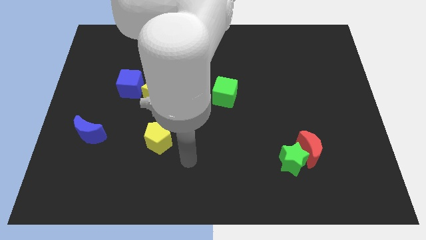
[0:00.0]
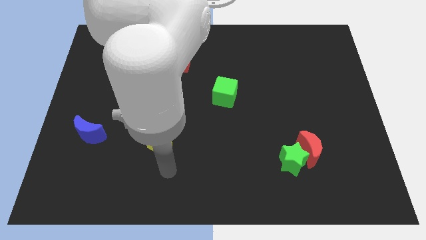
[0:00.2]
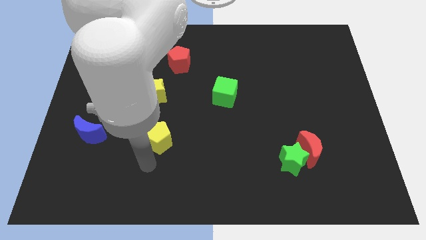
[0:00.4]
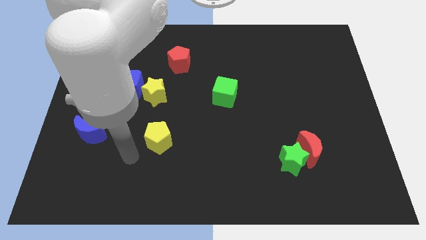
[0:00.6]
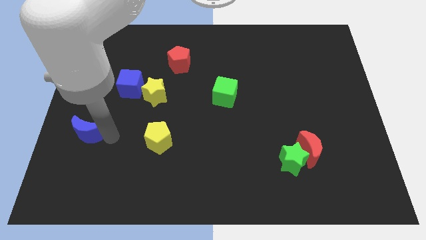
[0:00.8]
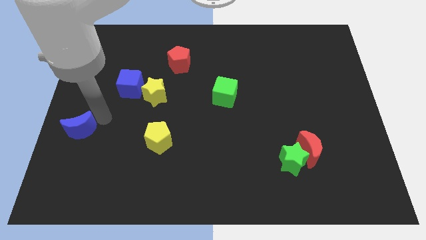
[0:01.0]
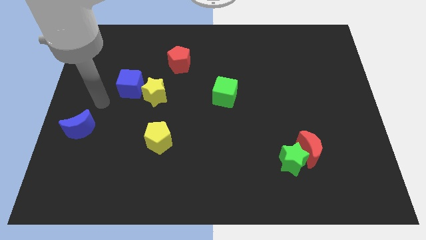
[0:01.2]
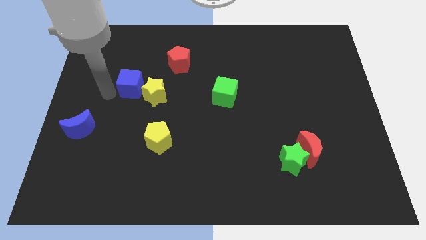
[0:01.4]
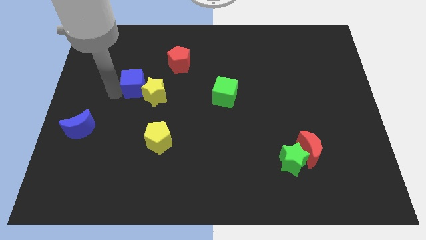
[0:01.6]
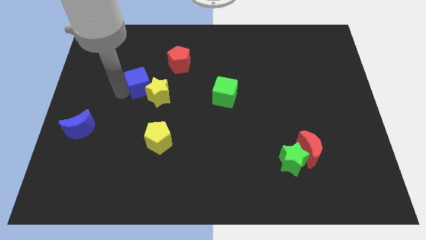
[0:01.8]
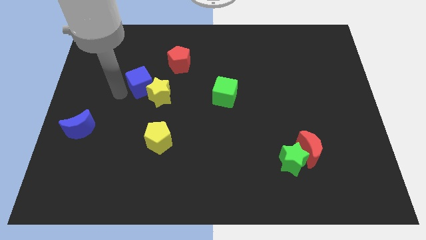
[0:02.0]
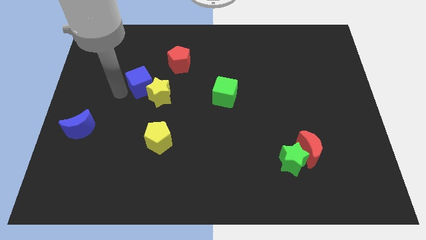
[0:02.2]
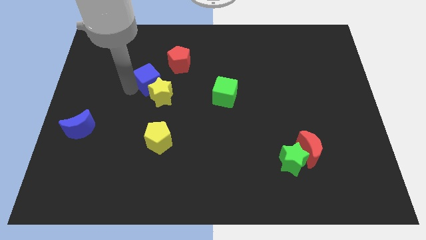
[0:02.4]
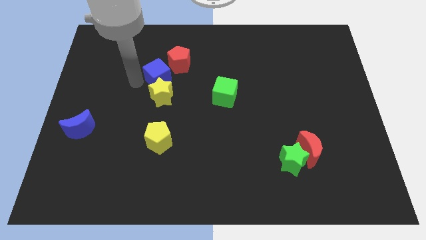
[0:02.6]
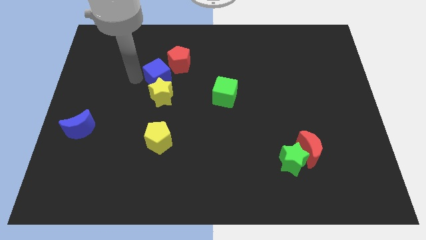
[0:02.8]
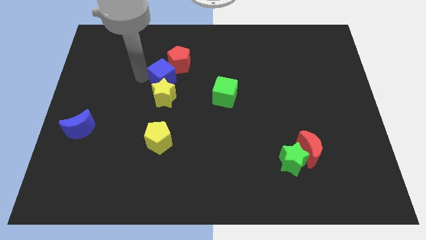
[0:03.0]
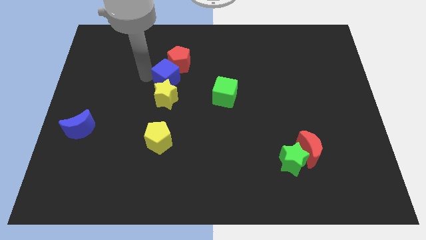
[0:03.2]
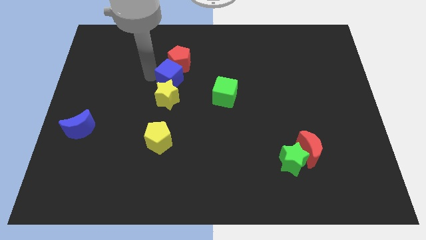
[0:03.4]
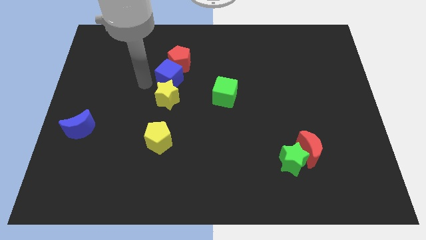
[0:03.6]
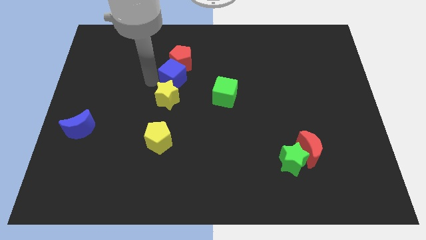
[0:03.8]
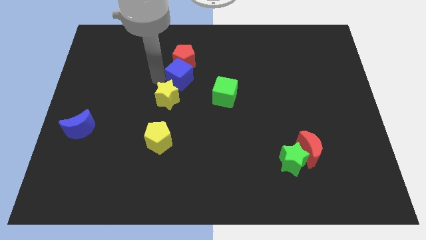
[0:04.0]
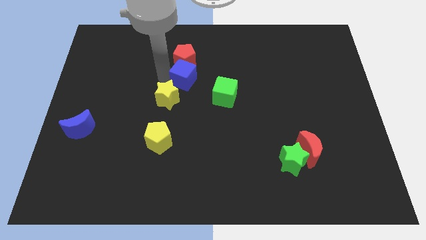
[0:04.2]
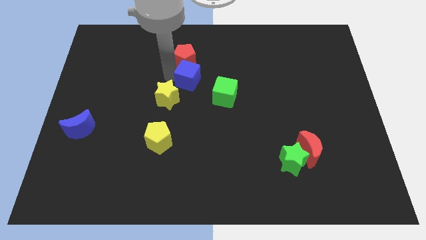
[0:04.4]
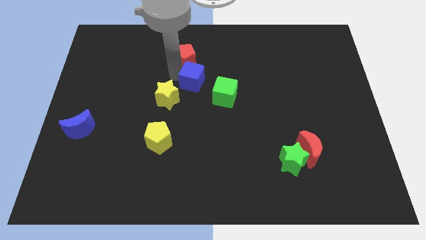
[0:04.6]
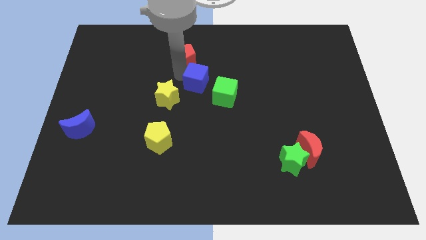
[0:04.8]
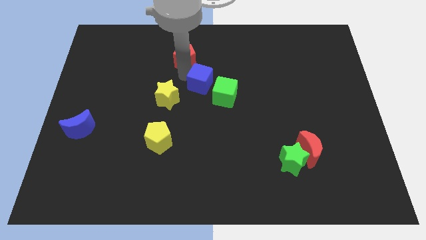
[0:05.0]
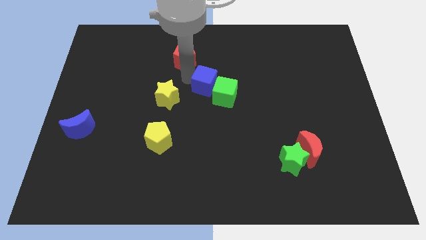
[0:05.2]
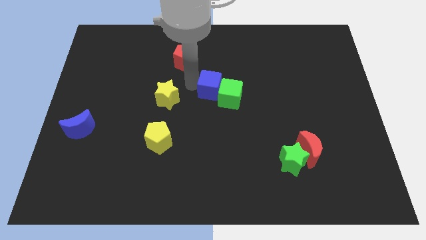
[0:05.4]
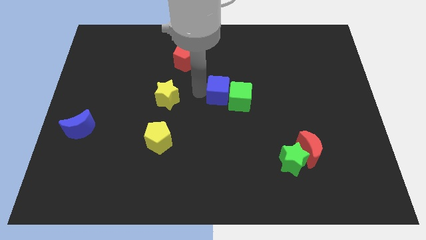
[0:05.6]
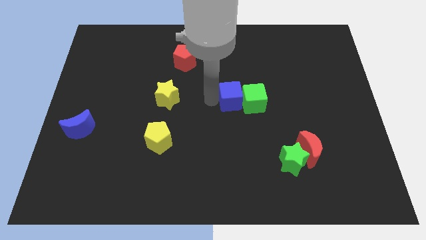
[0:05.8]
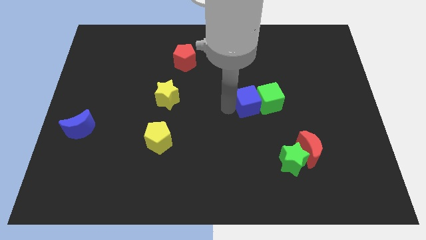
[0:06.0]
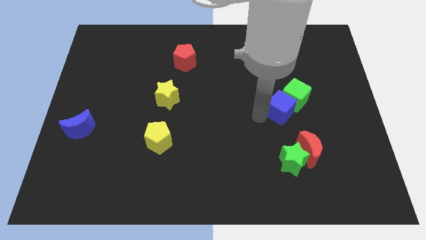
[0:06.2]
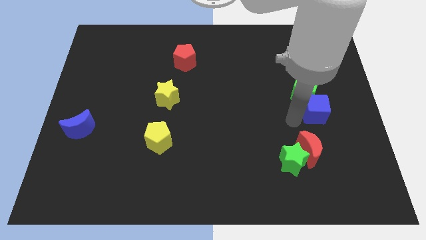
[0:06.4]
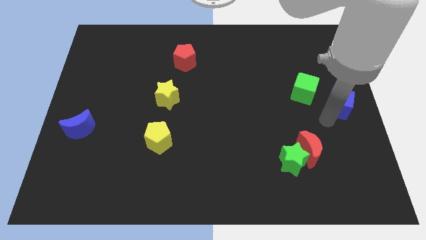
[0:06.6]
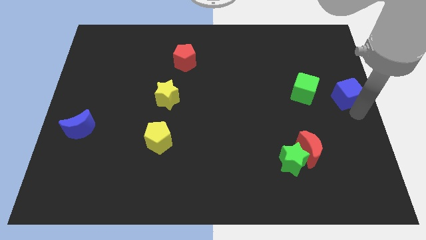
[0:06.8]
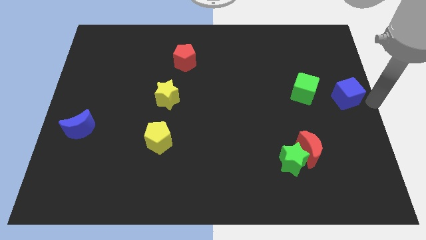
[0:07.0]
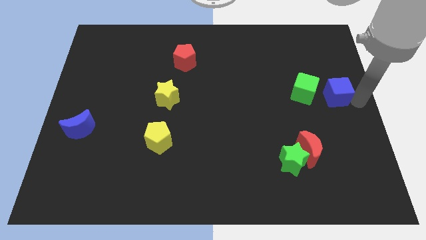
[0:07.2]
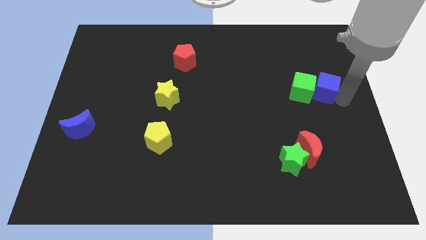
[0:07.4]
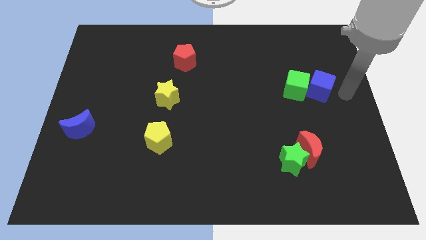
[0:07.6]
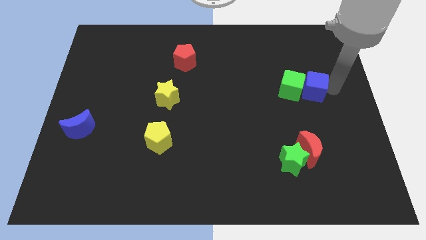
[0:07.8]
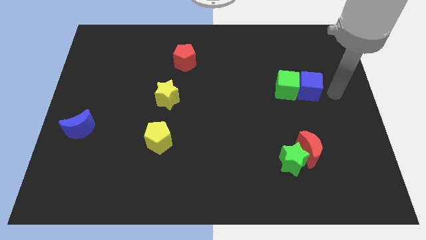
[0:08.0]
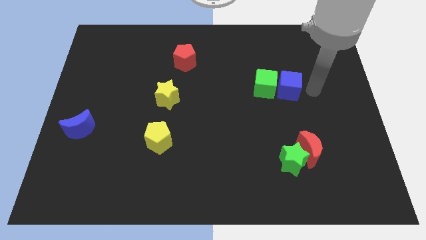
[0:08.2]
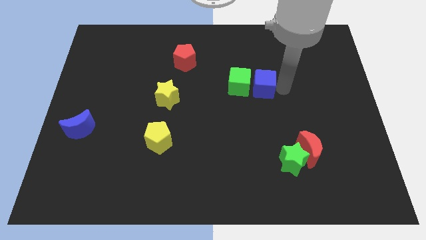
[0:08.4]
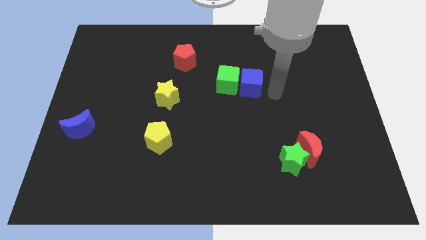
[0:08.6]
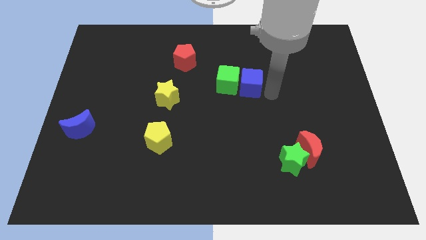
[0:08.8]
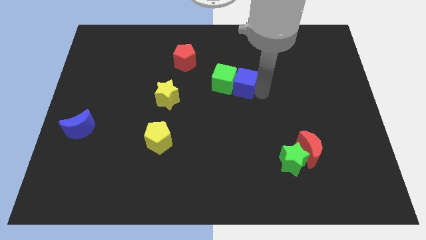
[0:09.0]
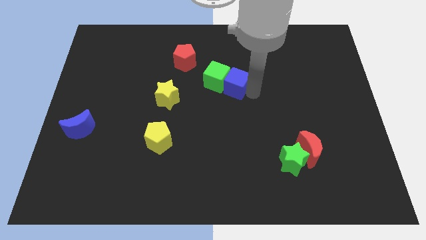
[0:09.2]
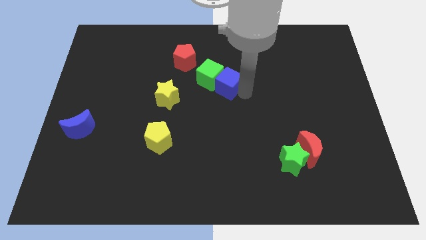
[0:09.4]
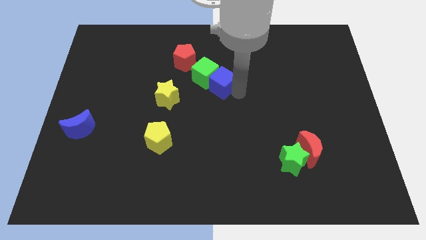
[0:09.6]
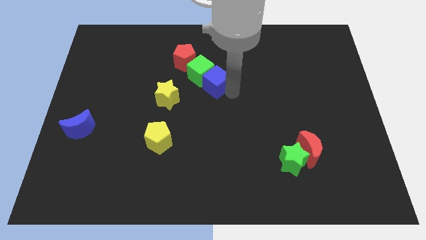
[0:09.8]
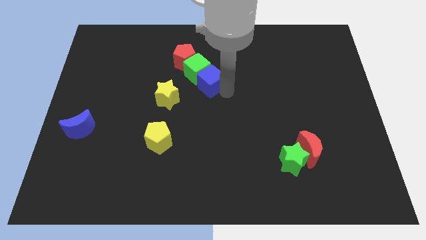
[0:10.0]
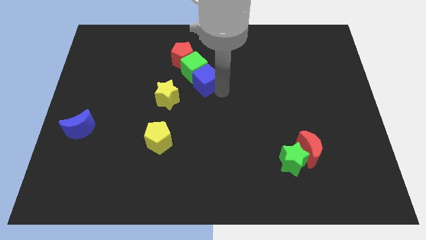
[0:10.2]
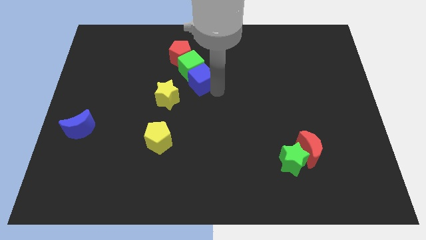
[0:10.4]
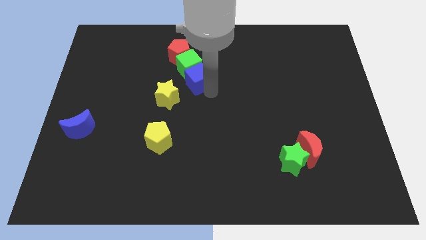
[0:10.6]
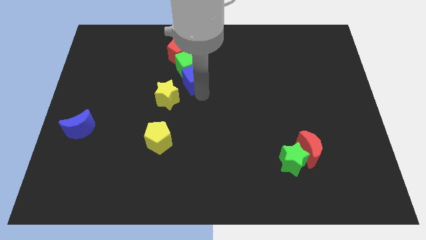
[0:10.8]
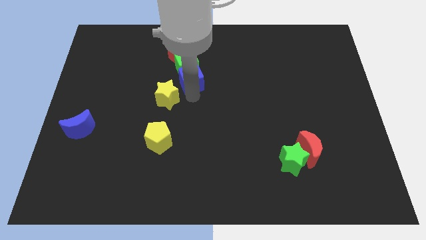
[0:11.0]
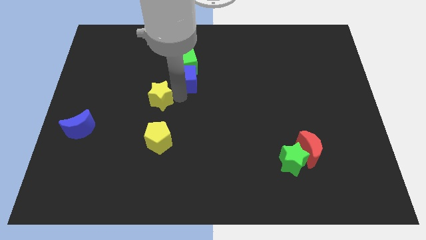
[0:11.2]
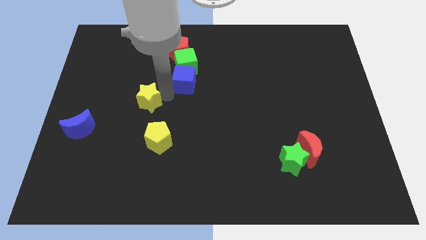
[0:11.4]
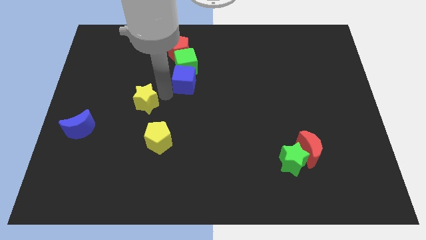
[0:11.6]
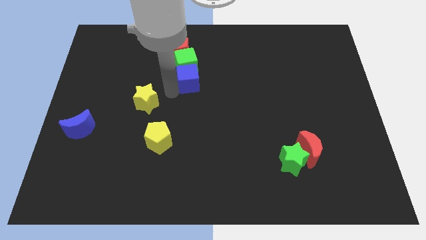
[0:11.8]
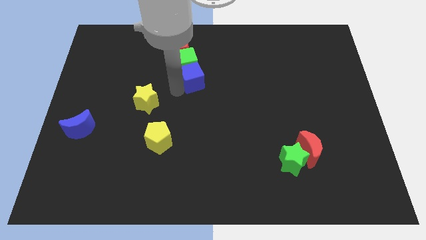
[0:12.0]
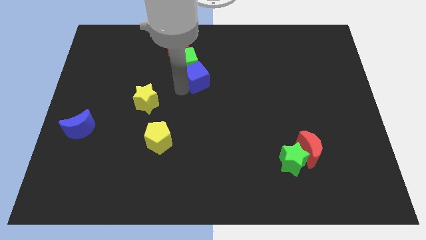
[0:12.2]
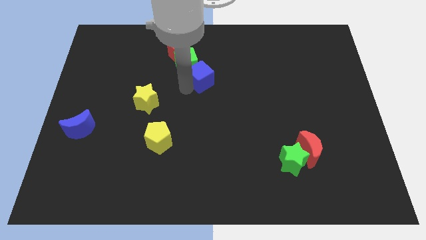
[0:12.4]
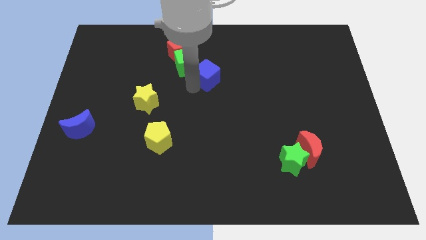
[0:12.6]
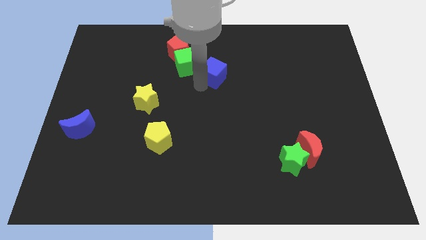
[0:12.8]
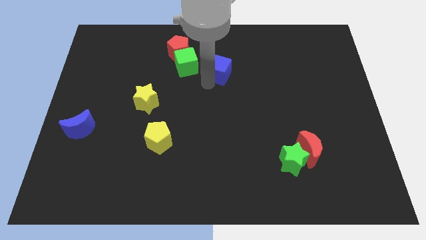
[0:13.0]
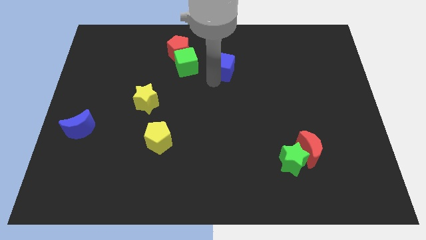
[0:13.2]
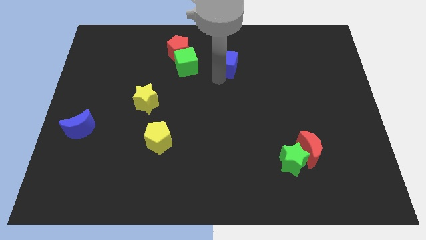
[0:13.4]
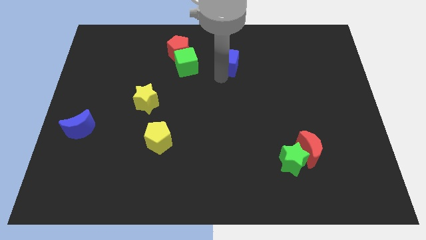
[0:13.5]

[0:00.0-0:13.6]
put the blue cube just right of the red pentagon
